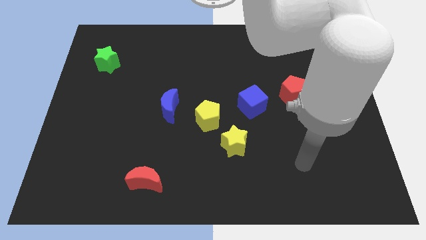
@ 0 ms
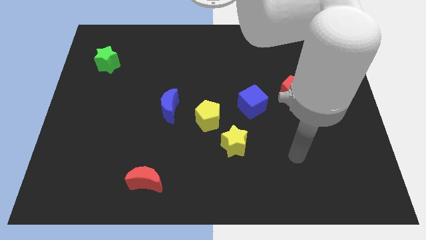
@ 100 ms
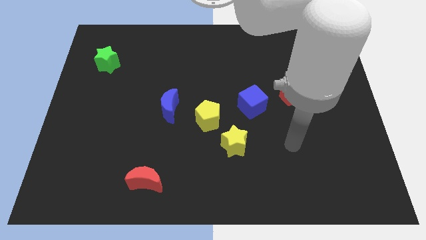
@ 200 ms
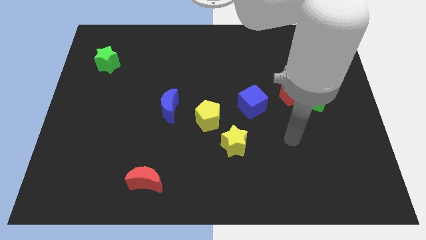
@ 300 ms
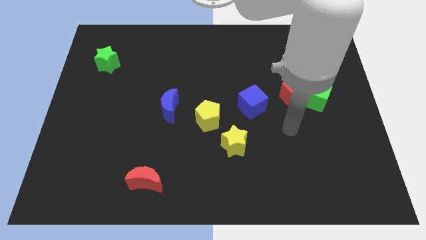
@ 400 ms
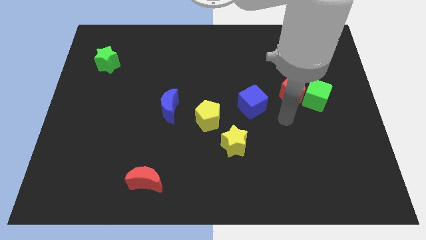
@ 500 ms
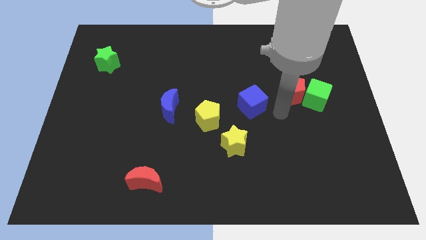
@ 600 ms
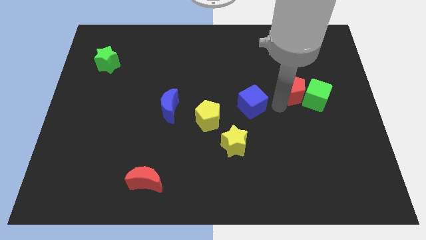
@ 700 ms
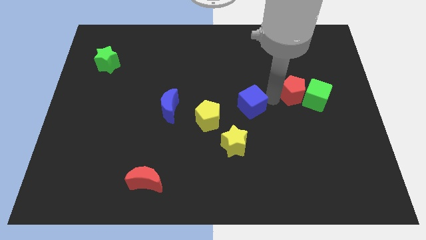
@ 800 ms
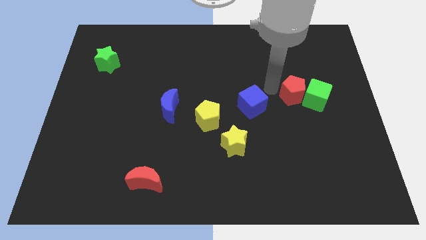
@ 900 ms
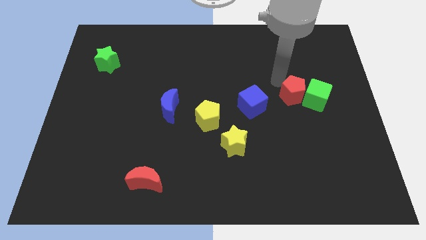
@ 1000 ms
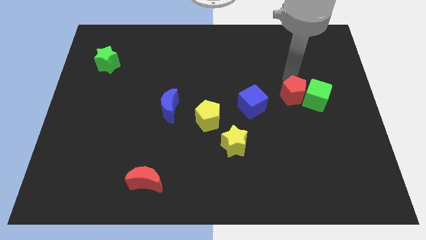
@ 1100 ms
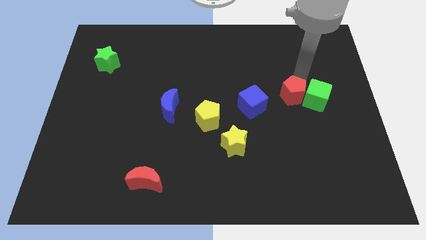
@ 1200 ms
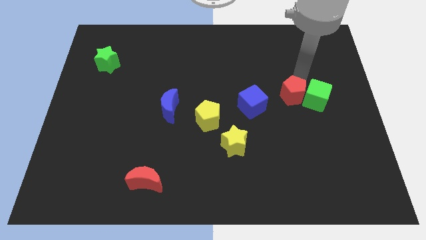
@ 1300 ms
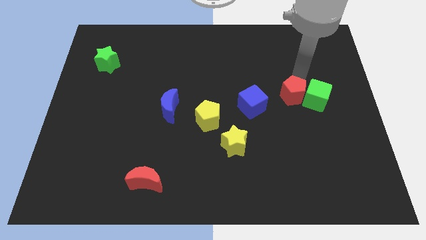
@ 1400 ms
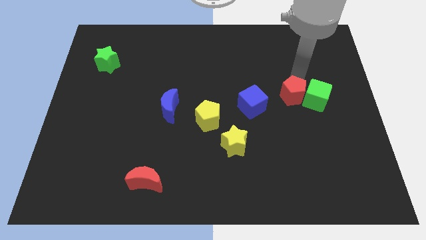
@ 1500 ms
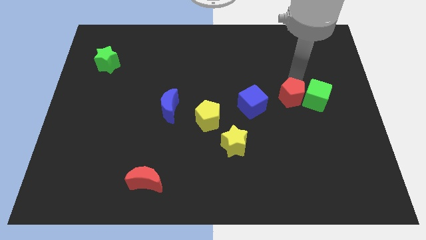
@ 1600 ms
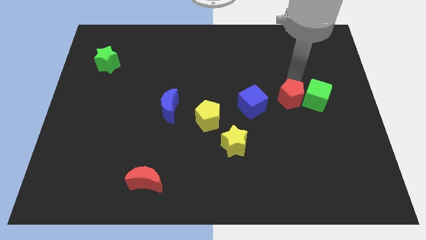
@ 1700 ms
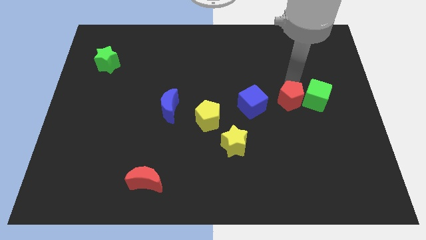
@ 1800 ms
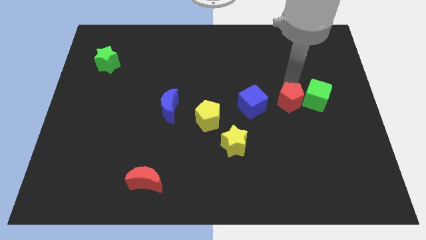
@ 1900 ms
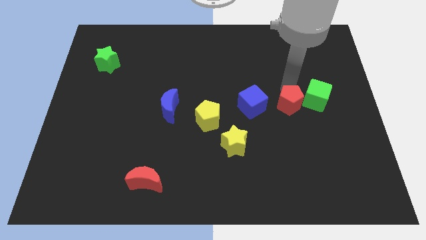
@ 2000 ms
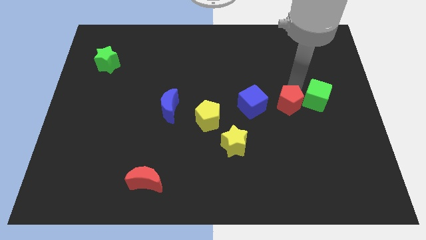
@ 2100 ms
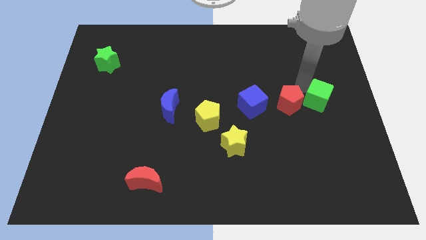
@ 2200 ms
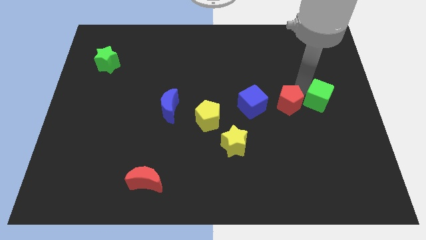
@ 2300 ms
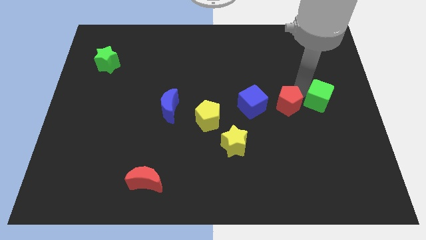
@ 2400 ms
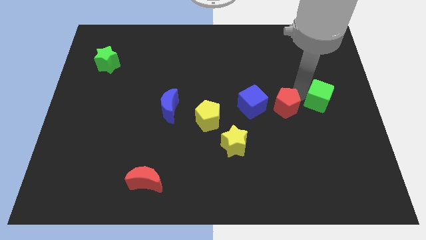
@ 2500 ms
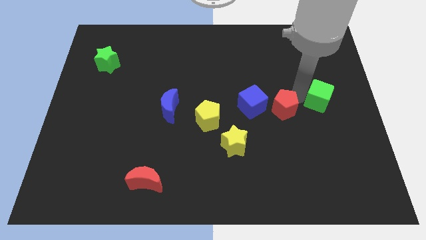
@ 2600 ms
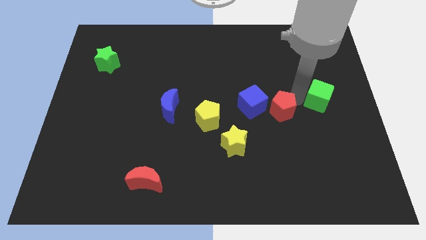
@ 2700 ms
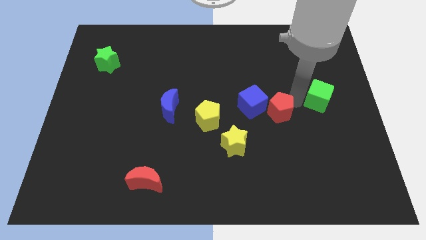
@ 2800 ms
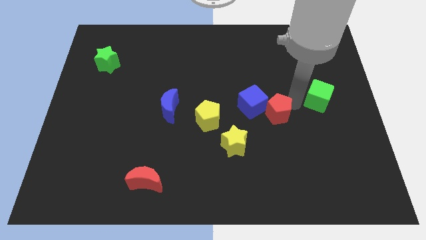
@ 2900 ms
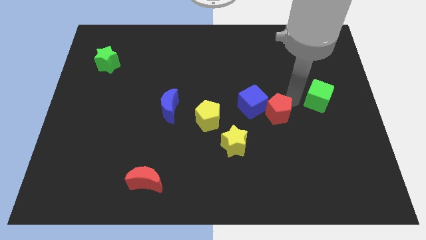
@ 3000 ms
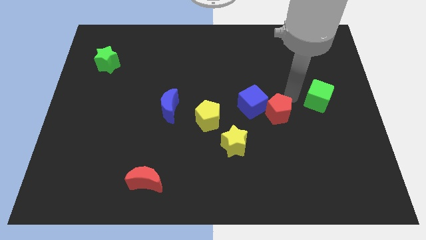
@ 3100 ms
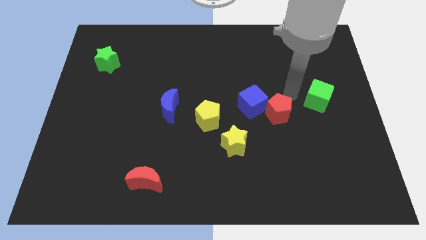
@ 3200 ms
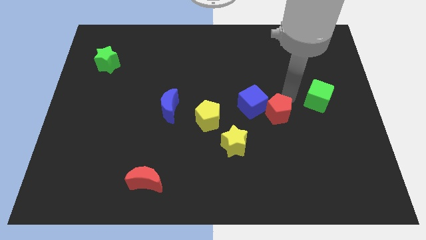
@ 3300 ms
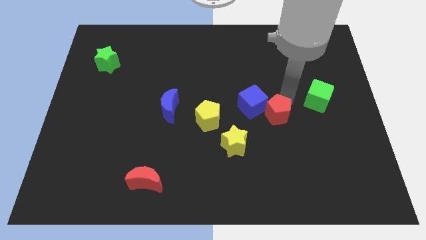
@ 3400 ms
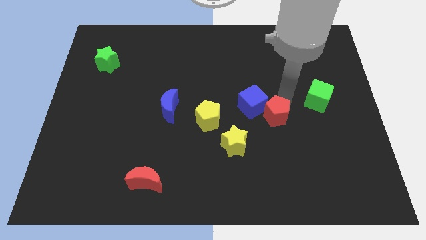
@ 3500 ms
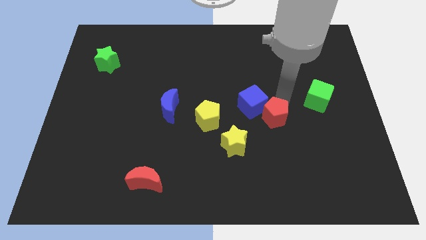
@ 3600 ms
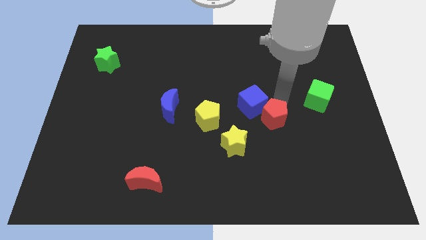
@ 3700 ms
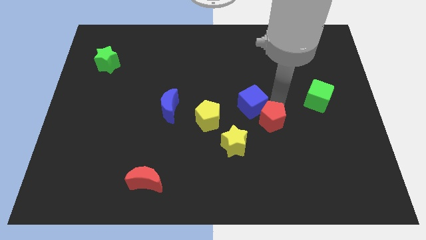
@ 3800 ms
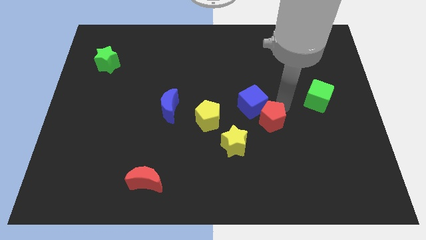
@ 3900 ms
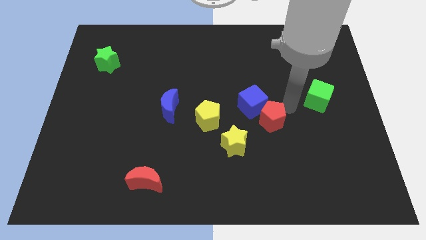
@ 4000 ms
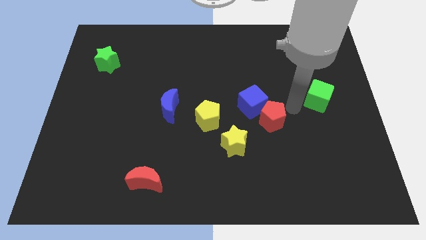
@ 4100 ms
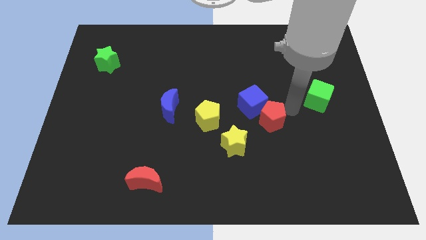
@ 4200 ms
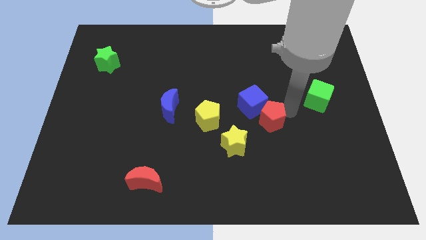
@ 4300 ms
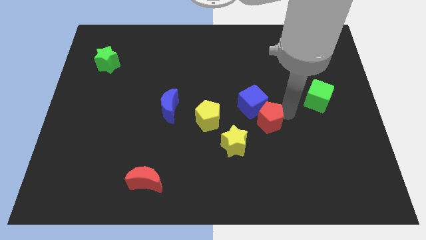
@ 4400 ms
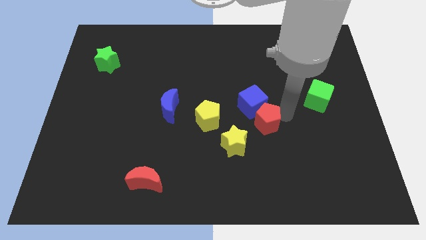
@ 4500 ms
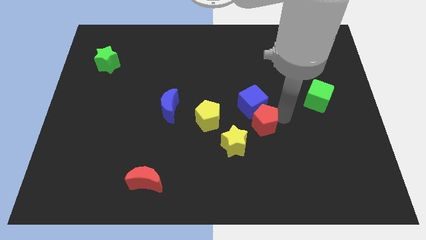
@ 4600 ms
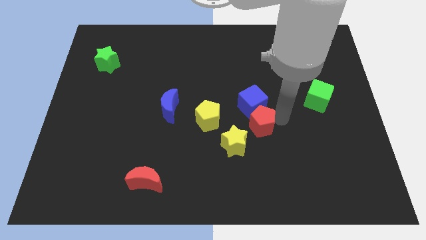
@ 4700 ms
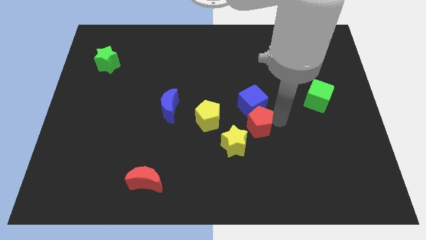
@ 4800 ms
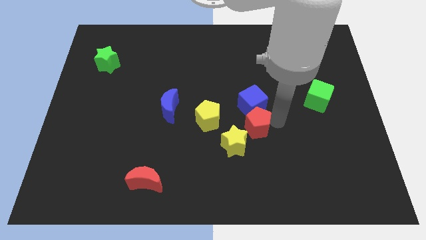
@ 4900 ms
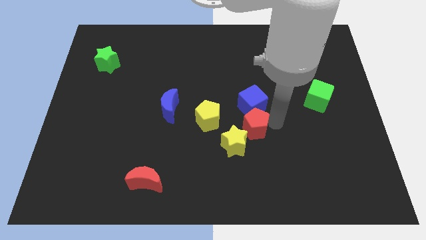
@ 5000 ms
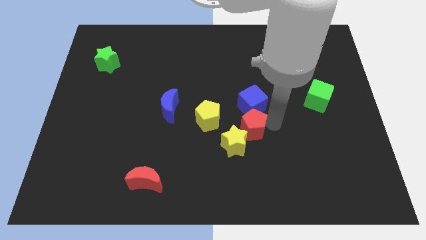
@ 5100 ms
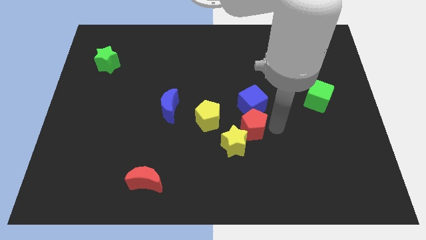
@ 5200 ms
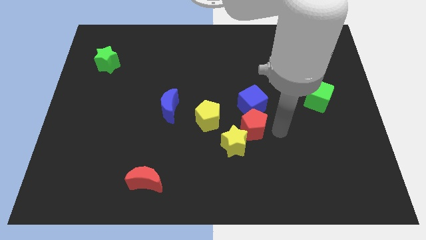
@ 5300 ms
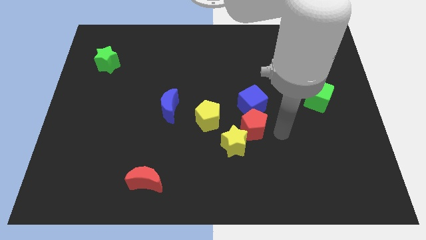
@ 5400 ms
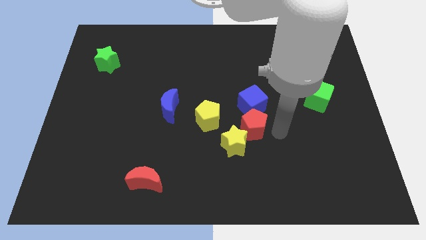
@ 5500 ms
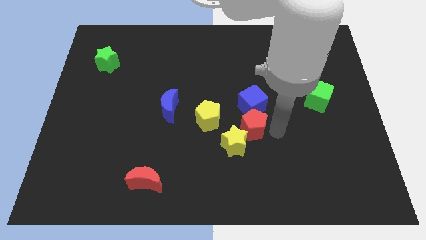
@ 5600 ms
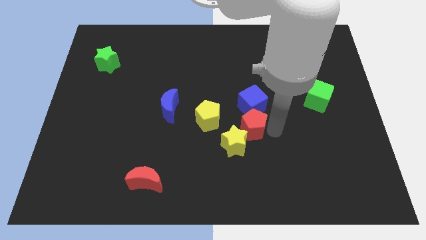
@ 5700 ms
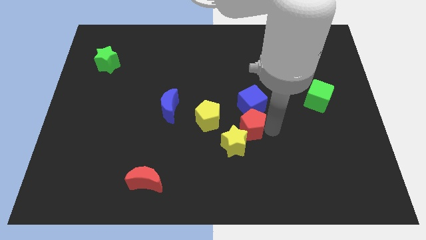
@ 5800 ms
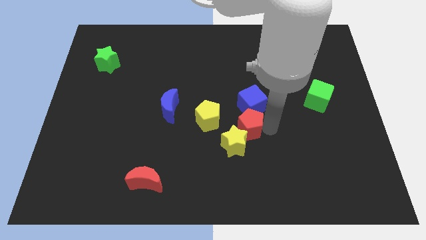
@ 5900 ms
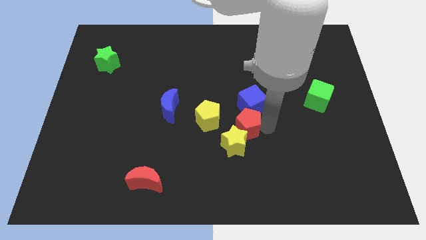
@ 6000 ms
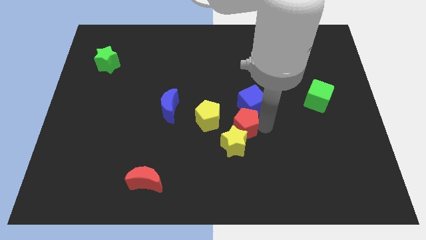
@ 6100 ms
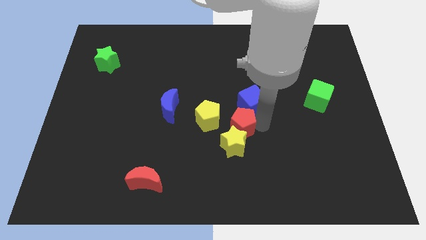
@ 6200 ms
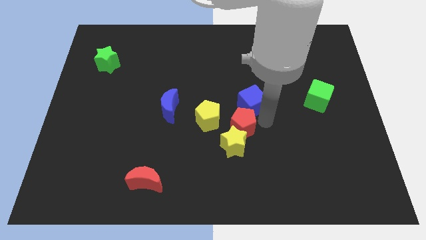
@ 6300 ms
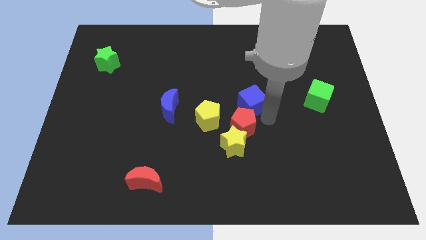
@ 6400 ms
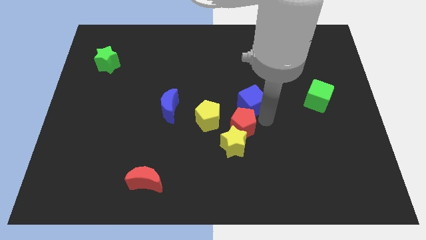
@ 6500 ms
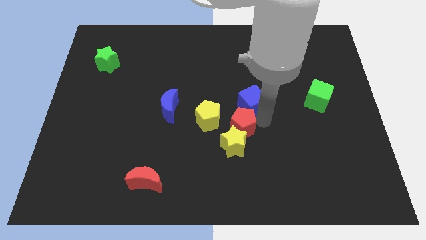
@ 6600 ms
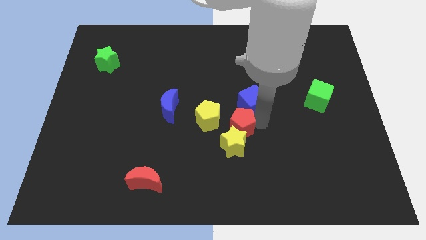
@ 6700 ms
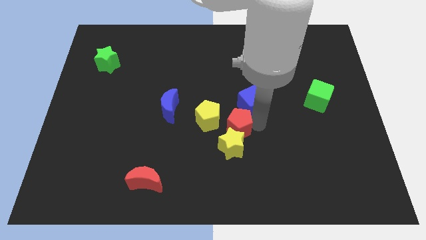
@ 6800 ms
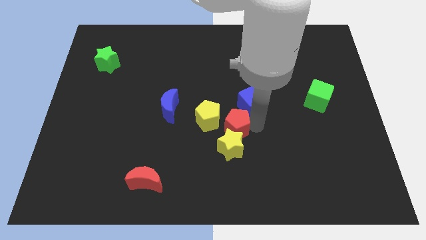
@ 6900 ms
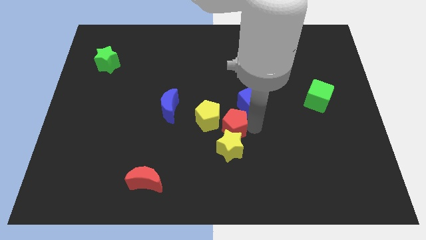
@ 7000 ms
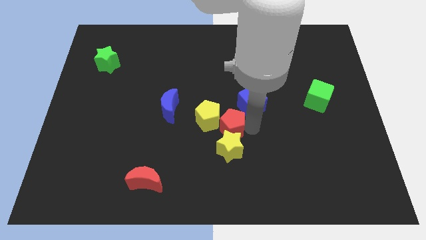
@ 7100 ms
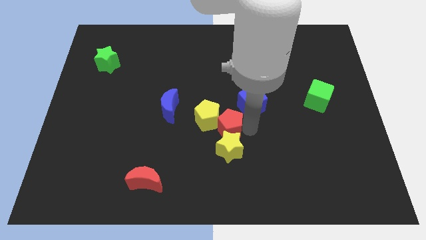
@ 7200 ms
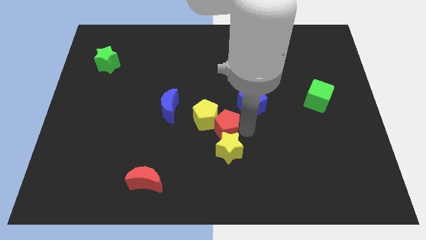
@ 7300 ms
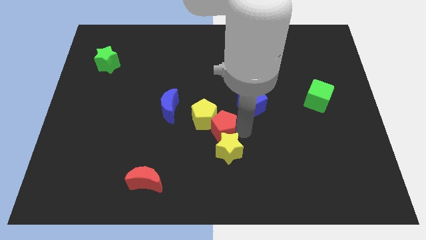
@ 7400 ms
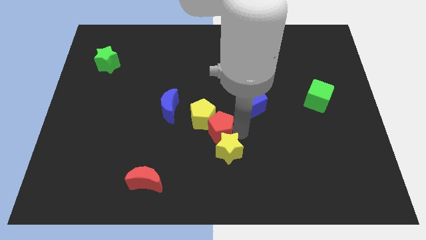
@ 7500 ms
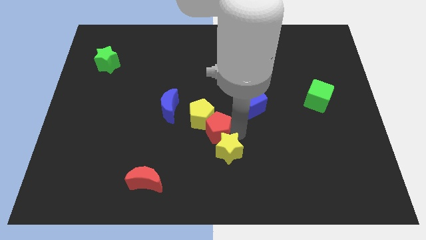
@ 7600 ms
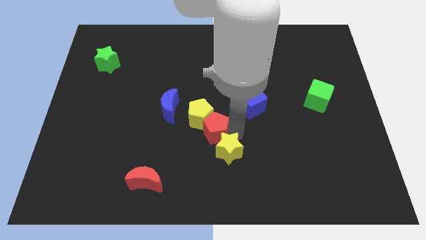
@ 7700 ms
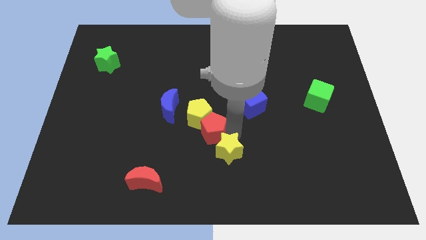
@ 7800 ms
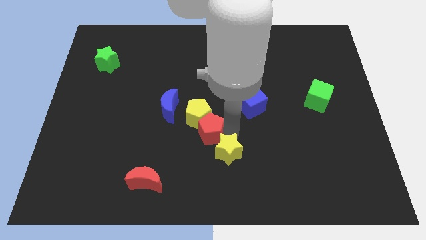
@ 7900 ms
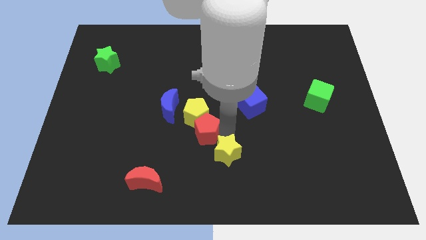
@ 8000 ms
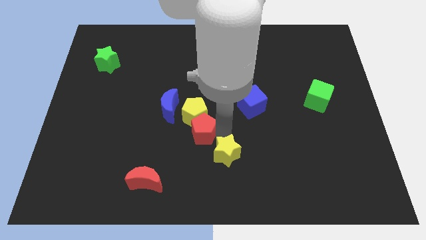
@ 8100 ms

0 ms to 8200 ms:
put the red pentagon diagonally down and to the left of the yellow pentagon
